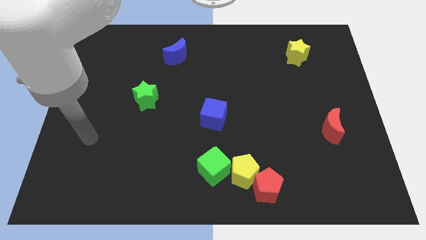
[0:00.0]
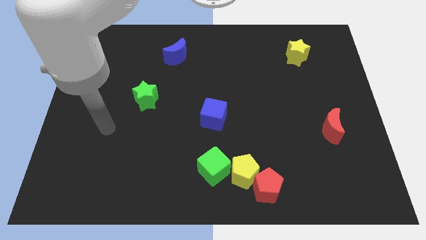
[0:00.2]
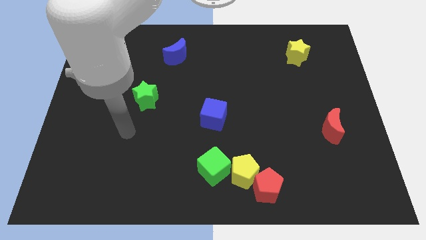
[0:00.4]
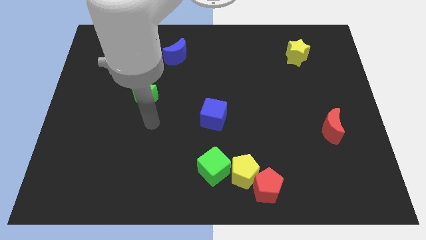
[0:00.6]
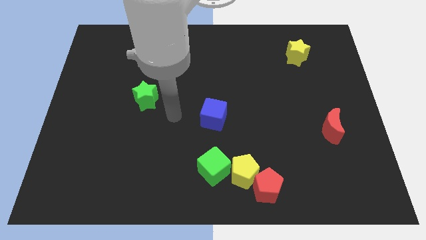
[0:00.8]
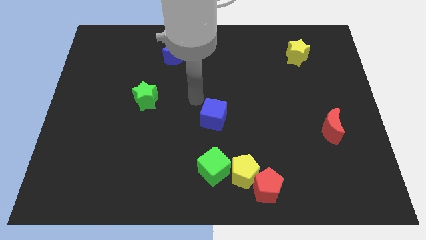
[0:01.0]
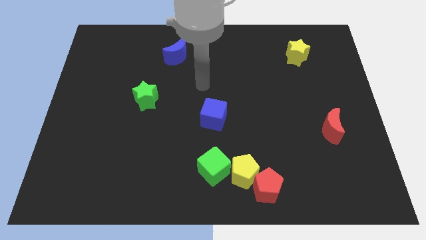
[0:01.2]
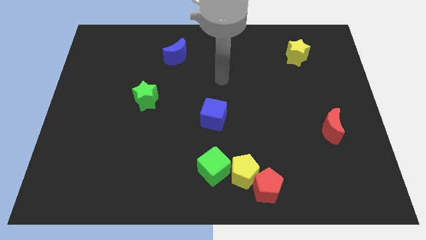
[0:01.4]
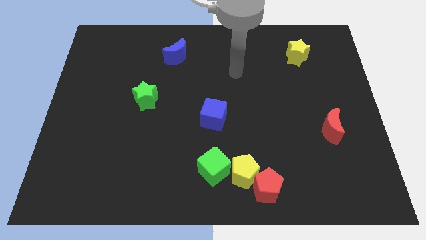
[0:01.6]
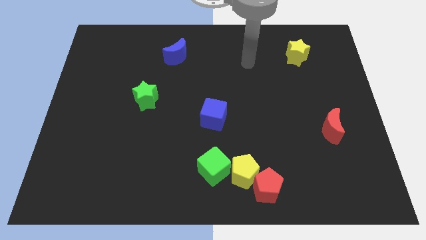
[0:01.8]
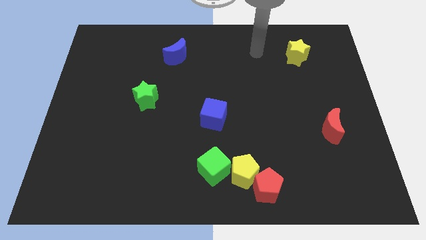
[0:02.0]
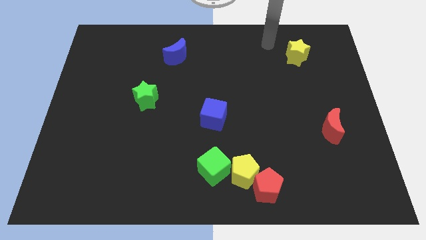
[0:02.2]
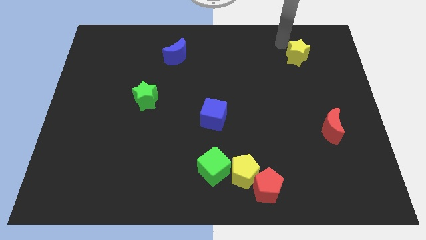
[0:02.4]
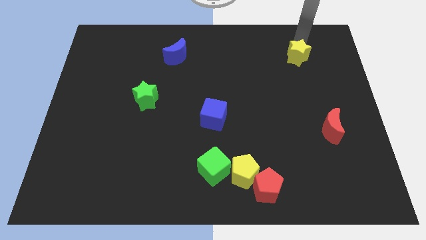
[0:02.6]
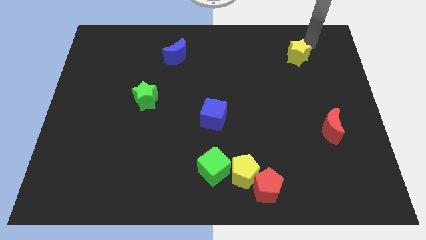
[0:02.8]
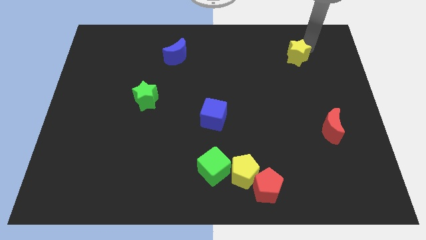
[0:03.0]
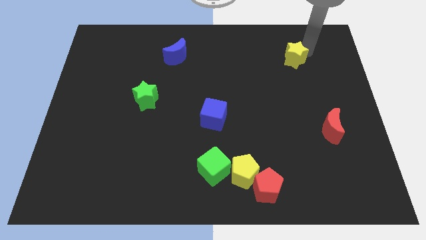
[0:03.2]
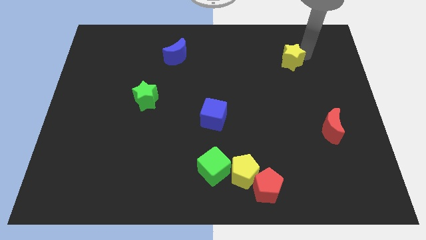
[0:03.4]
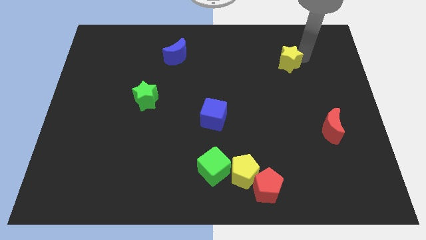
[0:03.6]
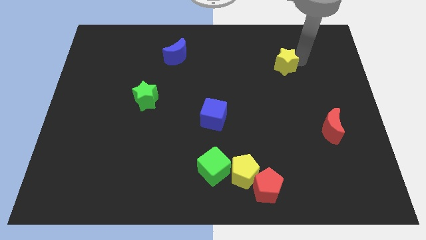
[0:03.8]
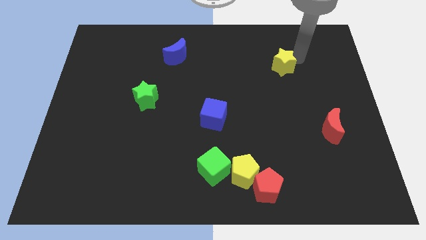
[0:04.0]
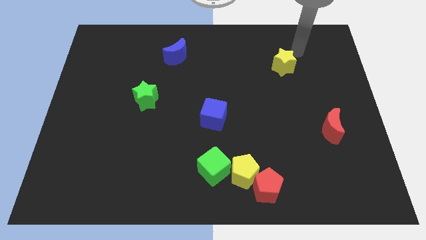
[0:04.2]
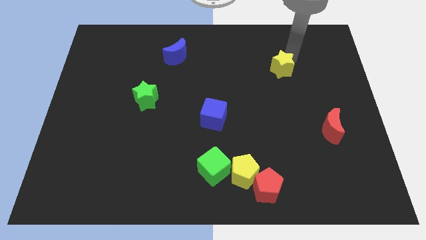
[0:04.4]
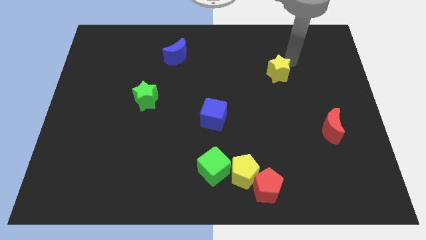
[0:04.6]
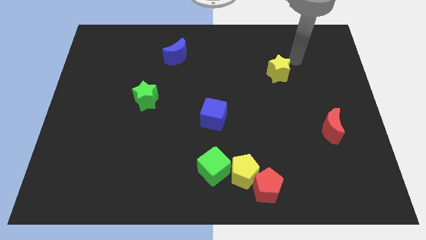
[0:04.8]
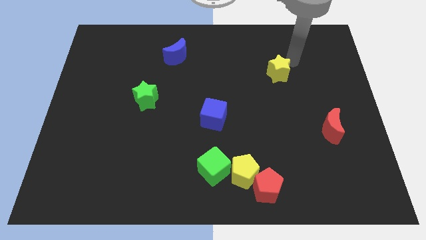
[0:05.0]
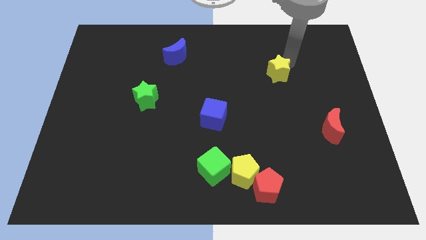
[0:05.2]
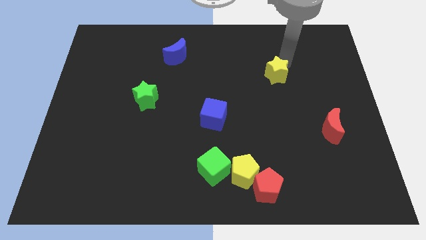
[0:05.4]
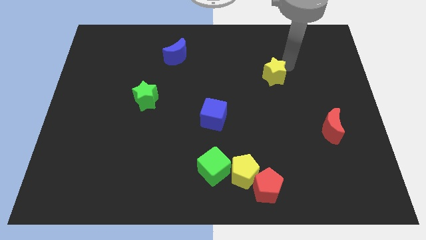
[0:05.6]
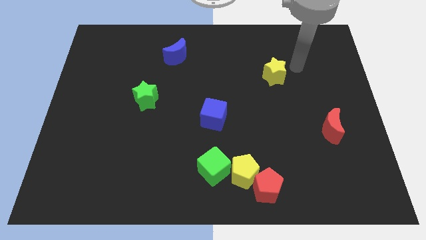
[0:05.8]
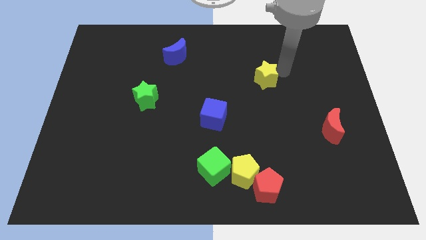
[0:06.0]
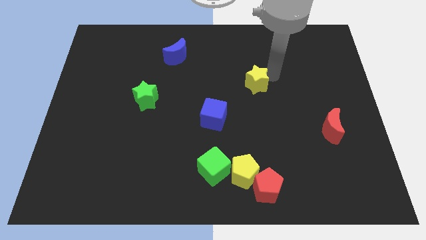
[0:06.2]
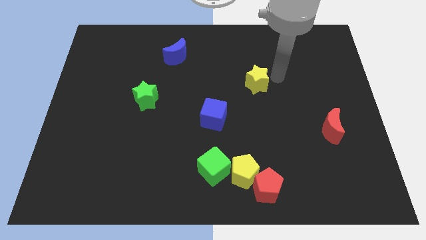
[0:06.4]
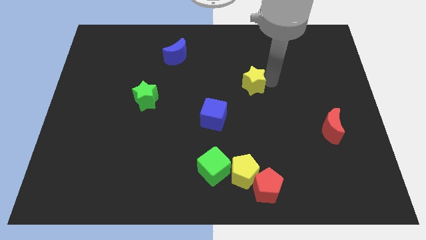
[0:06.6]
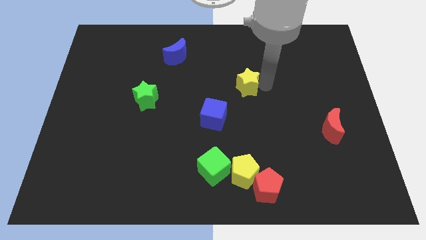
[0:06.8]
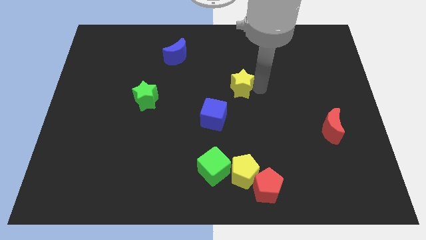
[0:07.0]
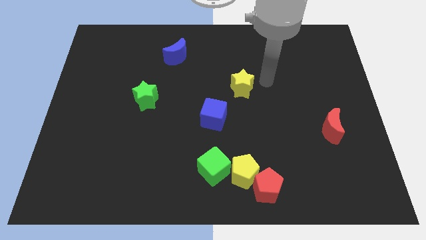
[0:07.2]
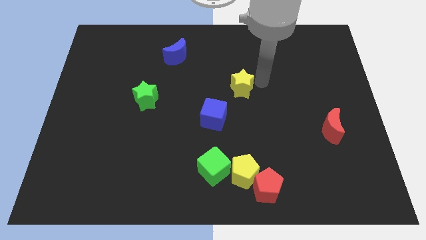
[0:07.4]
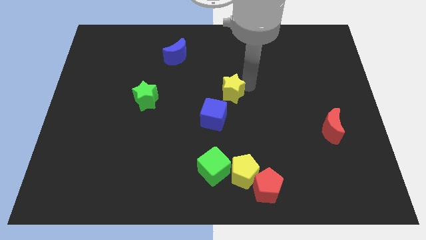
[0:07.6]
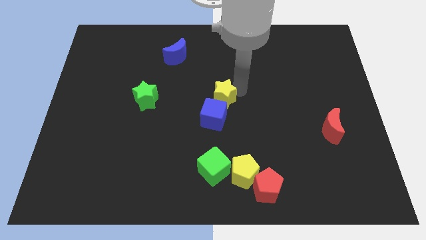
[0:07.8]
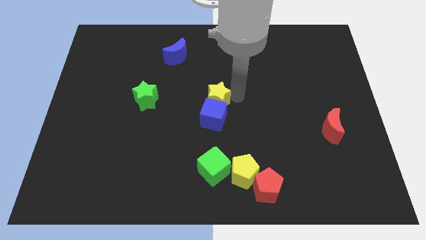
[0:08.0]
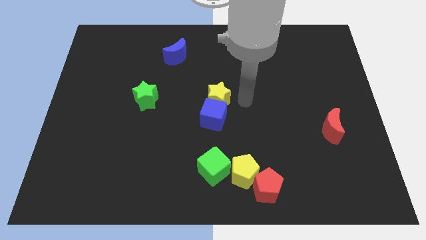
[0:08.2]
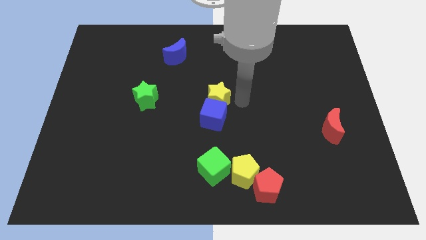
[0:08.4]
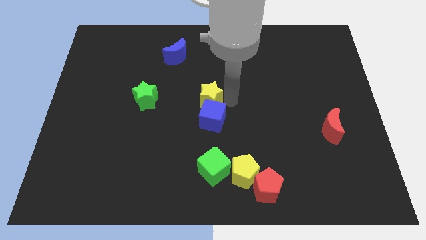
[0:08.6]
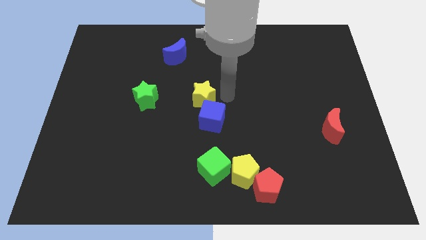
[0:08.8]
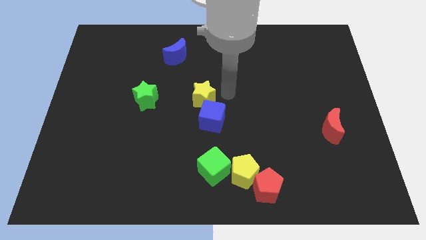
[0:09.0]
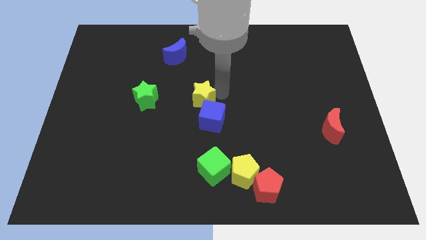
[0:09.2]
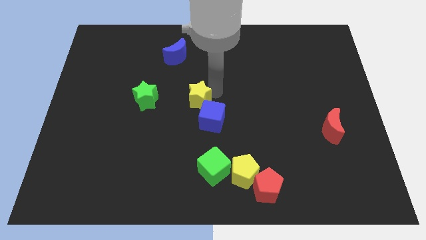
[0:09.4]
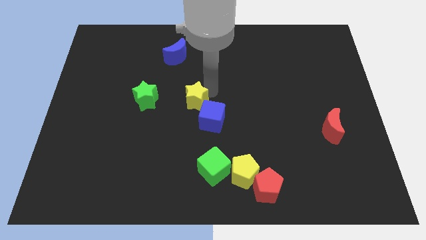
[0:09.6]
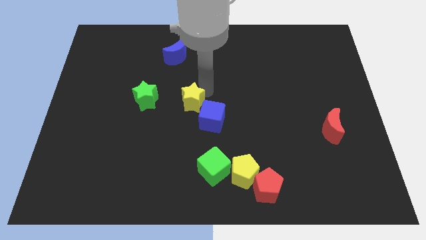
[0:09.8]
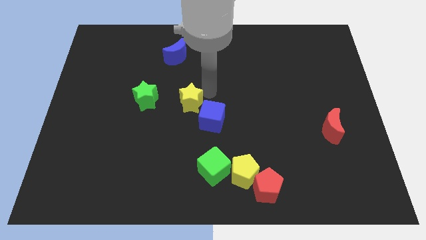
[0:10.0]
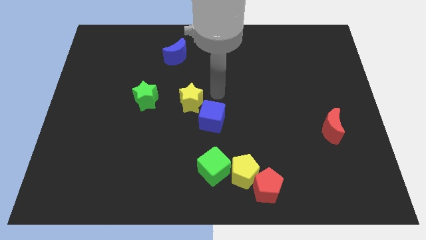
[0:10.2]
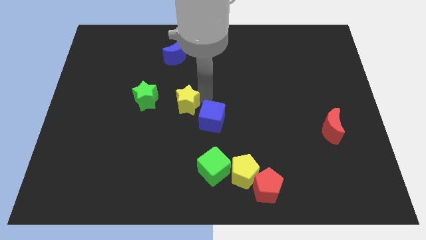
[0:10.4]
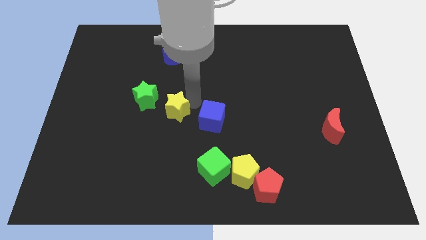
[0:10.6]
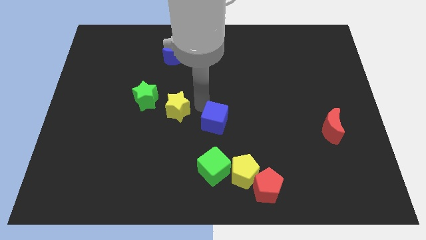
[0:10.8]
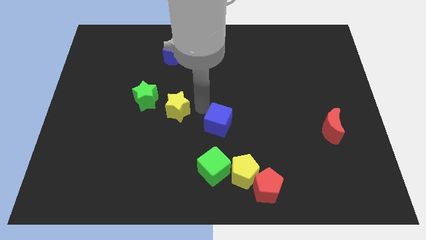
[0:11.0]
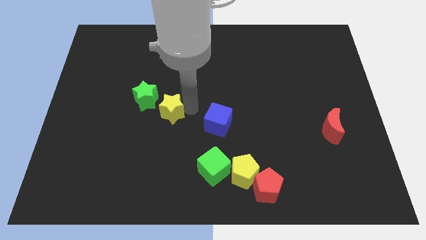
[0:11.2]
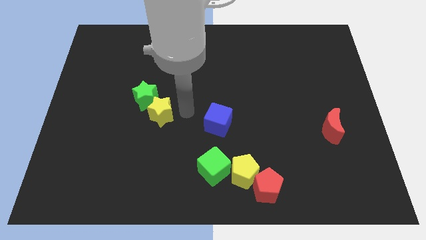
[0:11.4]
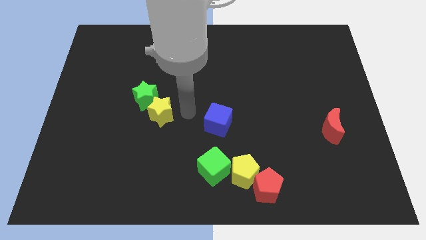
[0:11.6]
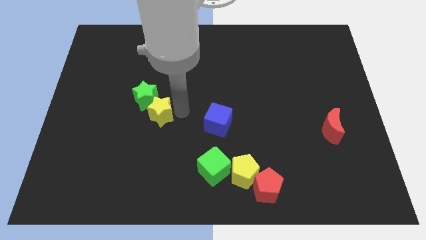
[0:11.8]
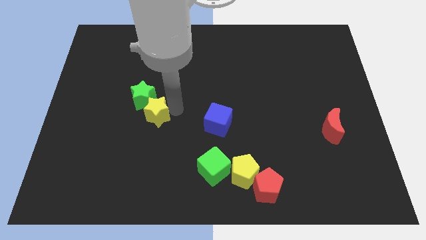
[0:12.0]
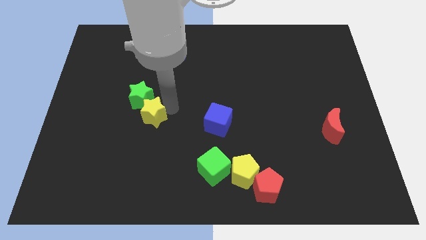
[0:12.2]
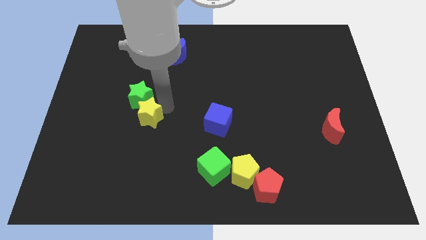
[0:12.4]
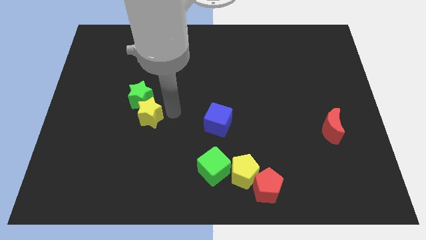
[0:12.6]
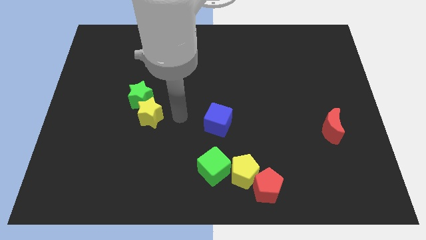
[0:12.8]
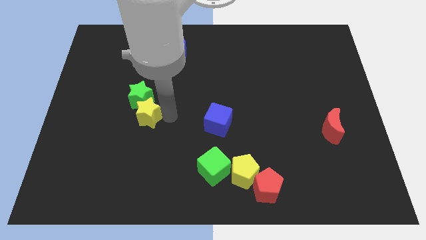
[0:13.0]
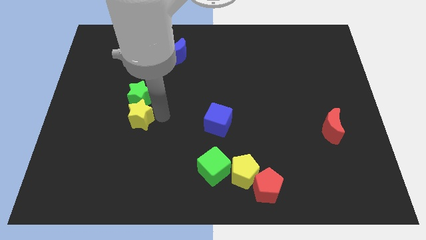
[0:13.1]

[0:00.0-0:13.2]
slide the yellow star to the bottom left of the green star
